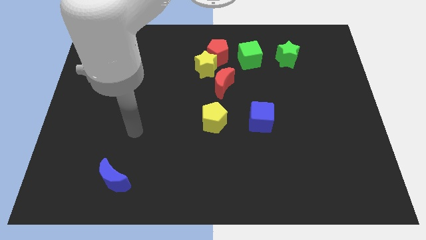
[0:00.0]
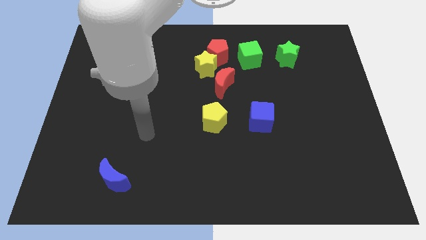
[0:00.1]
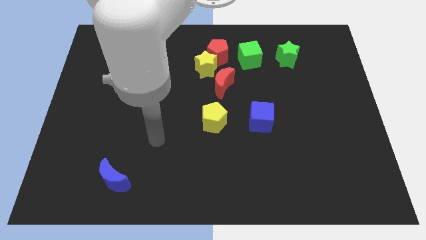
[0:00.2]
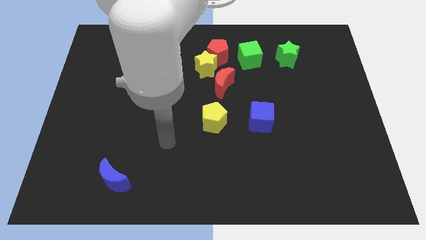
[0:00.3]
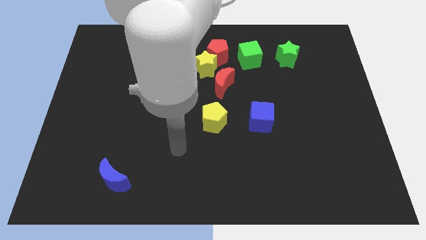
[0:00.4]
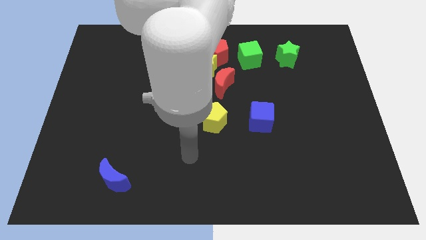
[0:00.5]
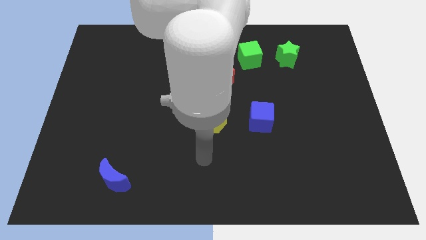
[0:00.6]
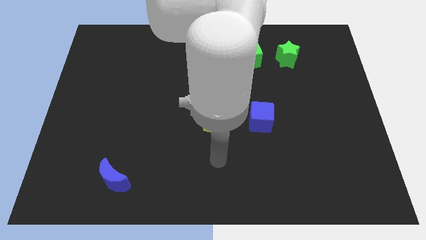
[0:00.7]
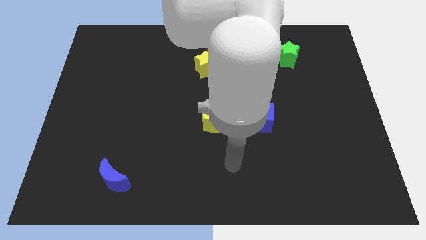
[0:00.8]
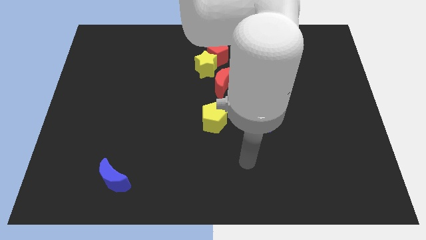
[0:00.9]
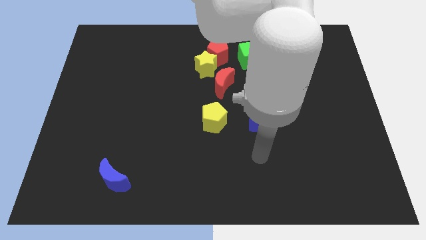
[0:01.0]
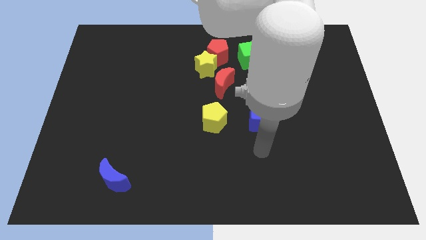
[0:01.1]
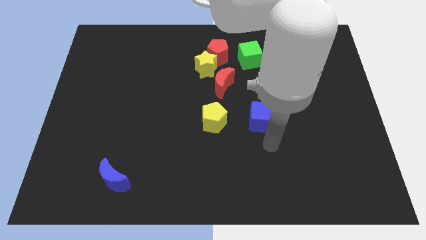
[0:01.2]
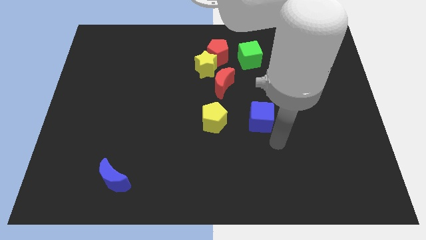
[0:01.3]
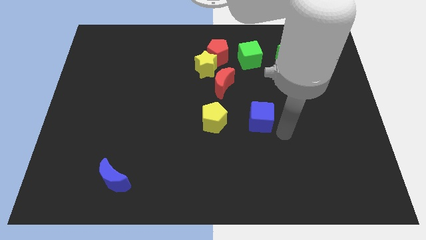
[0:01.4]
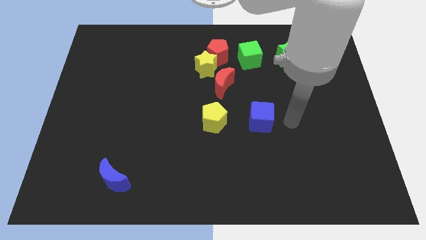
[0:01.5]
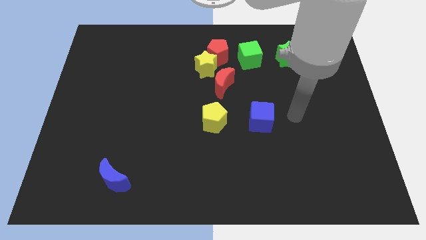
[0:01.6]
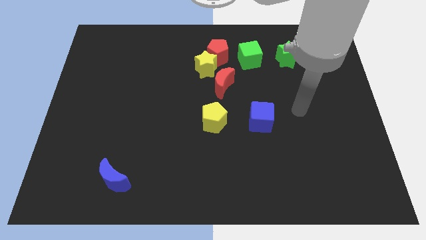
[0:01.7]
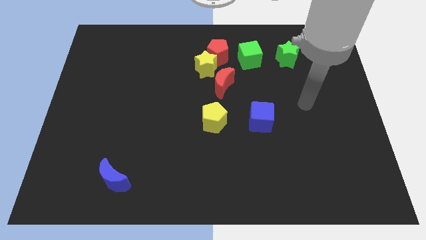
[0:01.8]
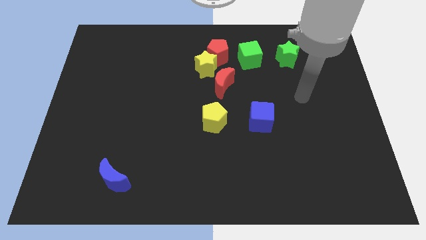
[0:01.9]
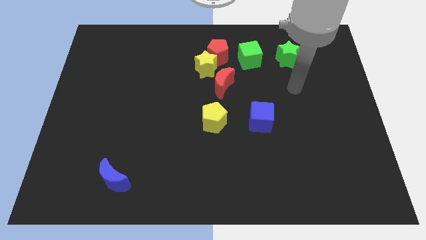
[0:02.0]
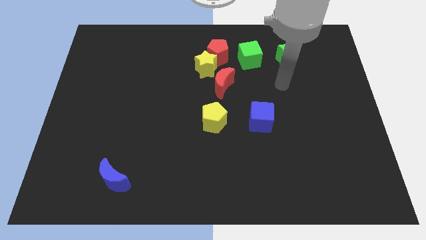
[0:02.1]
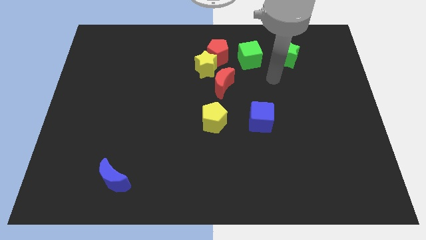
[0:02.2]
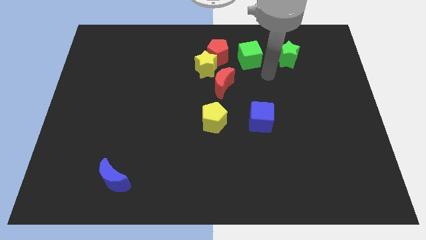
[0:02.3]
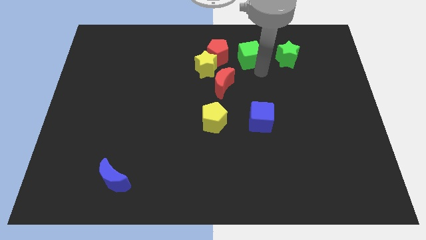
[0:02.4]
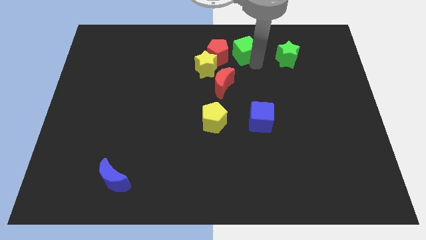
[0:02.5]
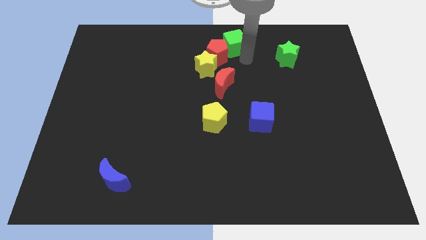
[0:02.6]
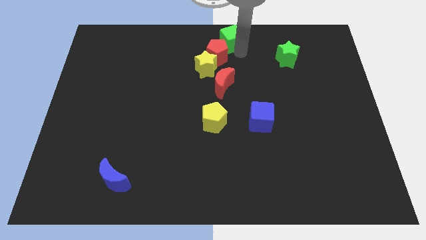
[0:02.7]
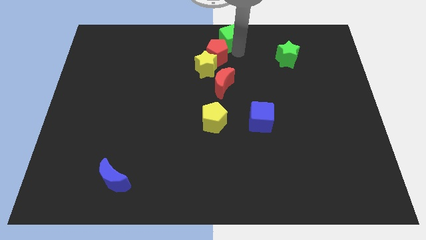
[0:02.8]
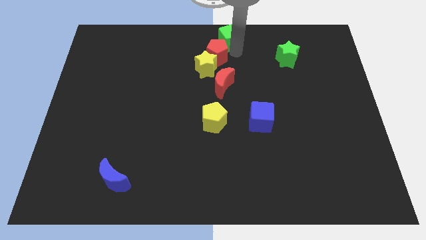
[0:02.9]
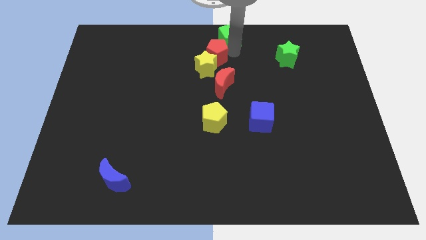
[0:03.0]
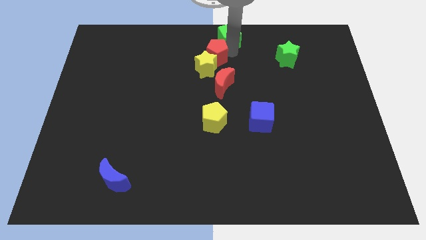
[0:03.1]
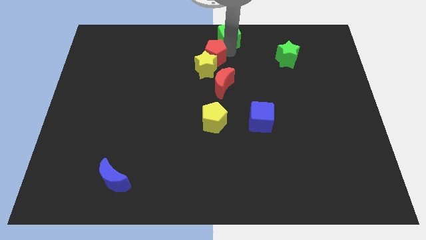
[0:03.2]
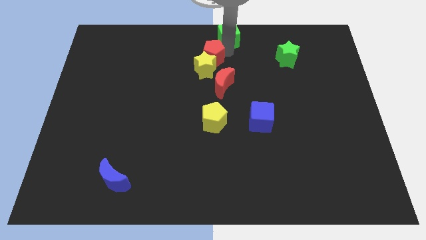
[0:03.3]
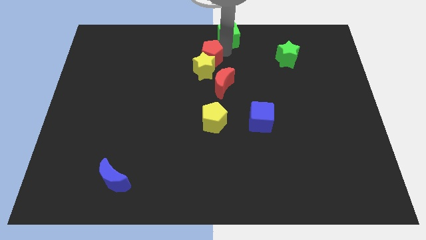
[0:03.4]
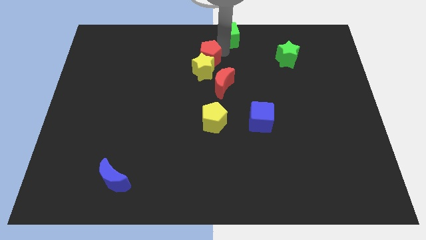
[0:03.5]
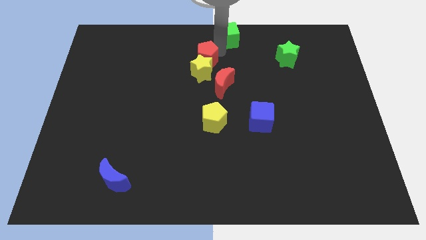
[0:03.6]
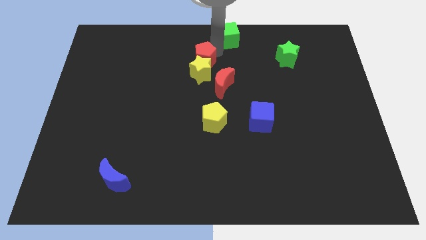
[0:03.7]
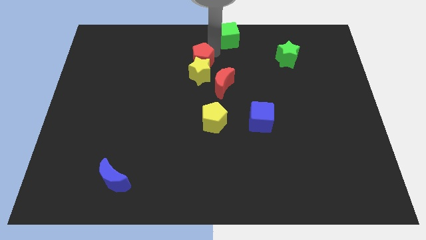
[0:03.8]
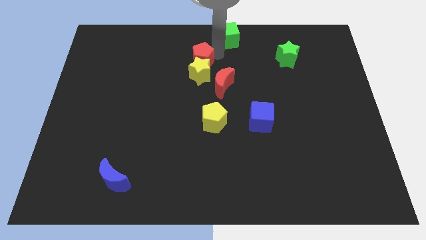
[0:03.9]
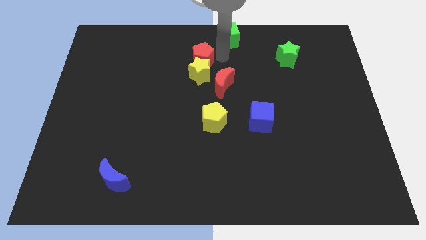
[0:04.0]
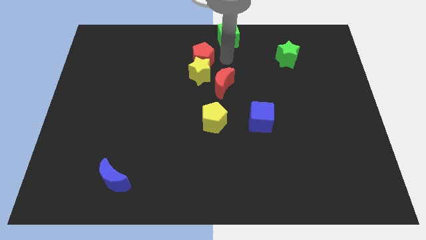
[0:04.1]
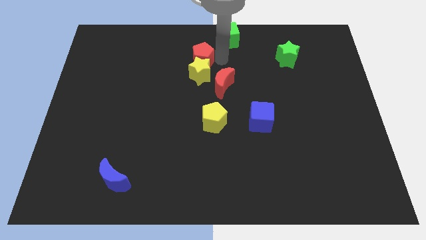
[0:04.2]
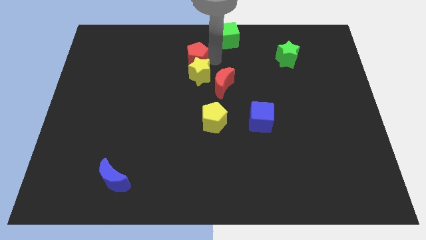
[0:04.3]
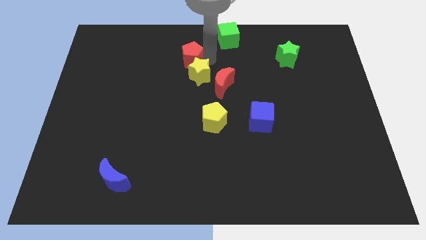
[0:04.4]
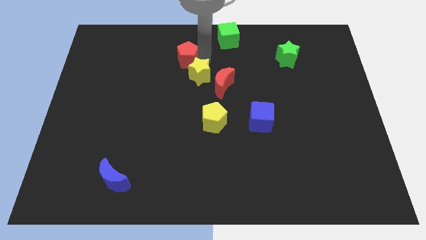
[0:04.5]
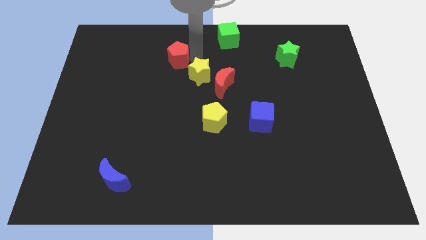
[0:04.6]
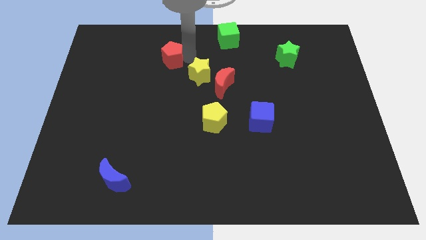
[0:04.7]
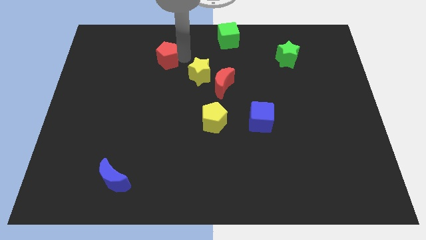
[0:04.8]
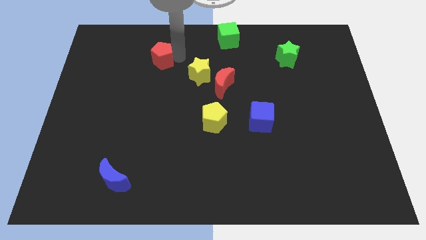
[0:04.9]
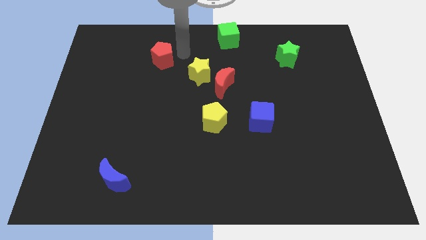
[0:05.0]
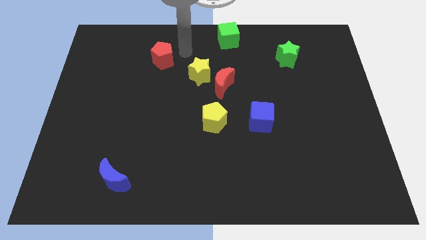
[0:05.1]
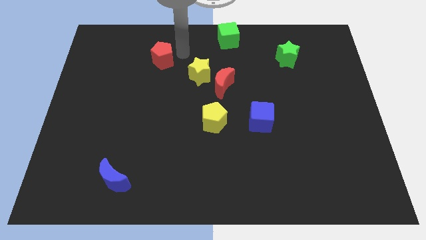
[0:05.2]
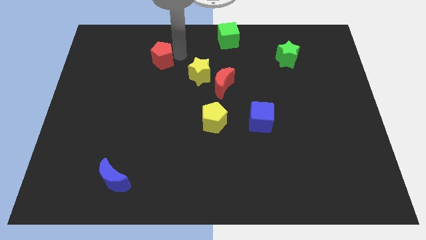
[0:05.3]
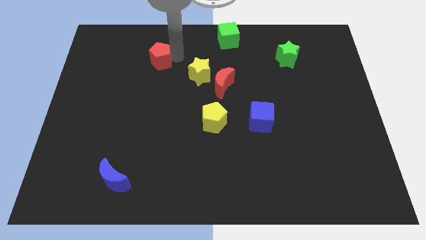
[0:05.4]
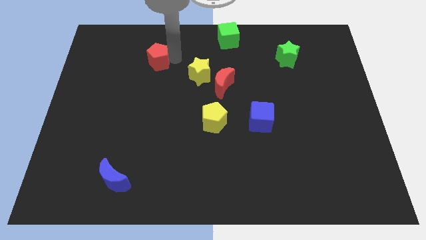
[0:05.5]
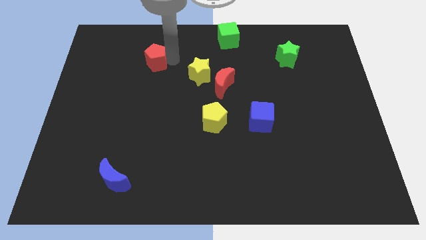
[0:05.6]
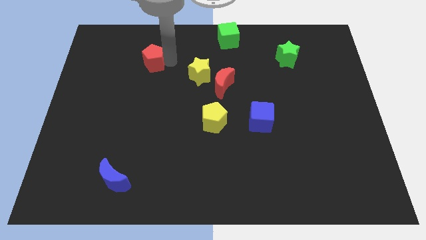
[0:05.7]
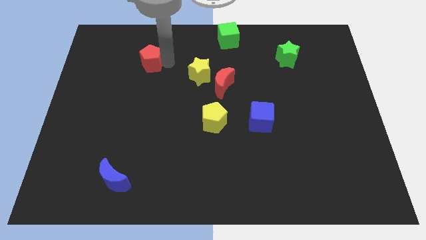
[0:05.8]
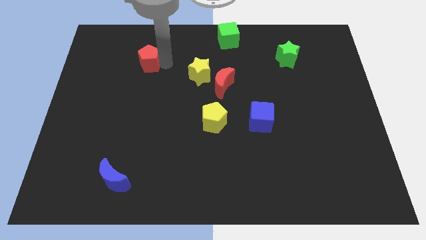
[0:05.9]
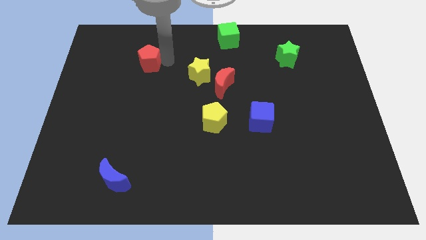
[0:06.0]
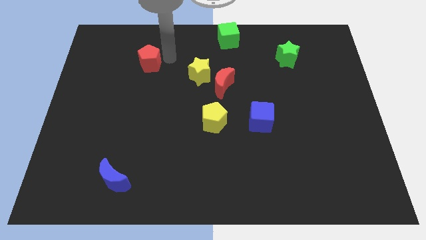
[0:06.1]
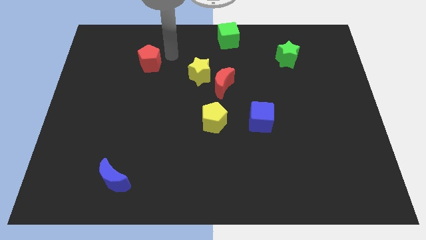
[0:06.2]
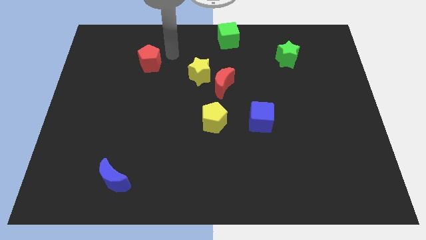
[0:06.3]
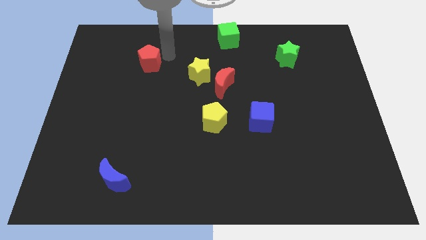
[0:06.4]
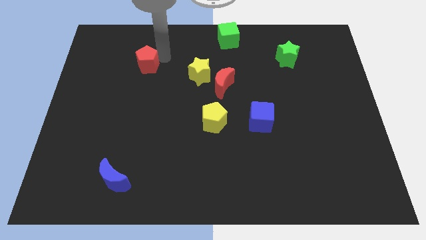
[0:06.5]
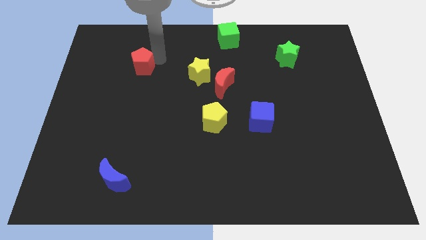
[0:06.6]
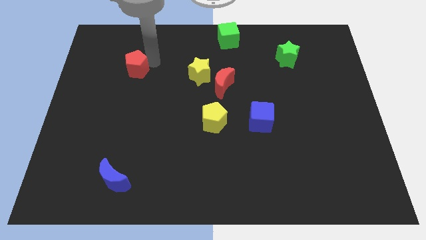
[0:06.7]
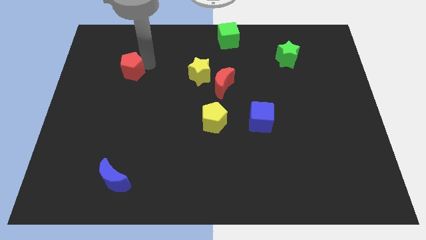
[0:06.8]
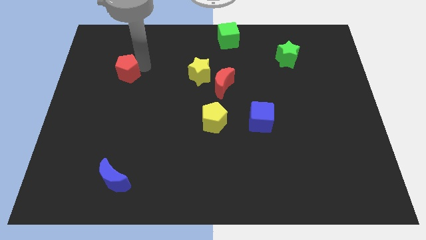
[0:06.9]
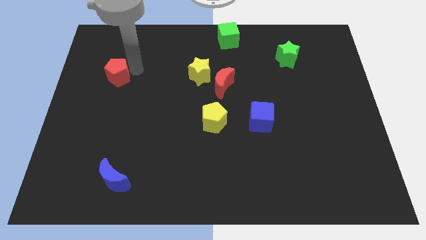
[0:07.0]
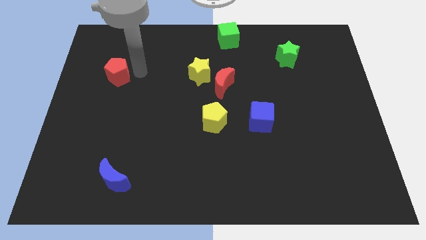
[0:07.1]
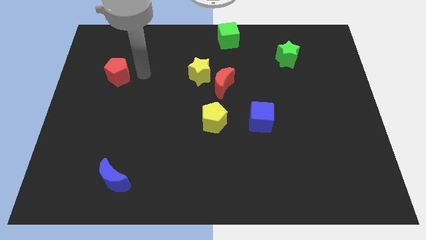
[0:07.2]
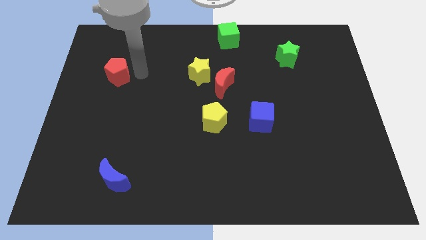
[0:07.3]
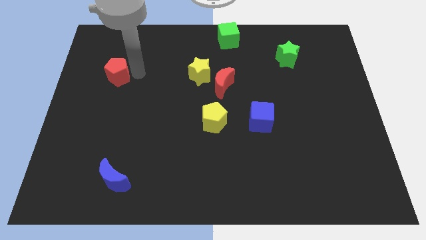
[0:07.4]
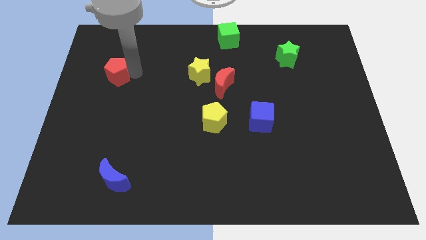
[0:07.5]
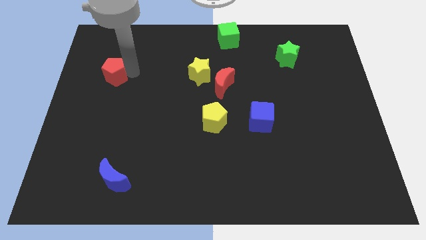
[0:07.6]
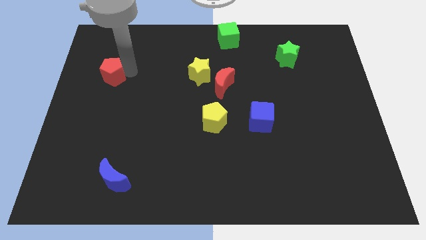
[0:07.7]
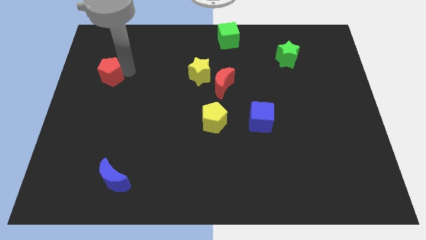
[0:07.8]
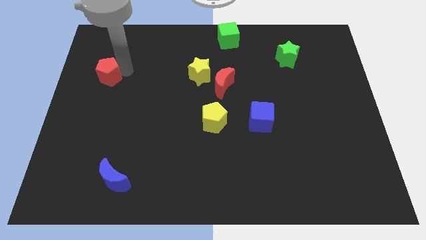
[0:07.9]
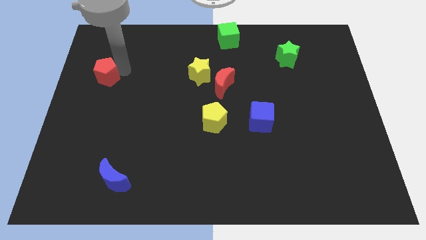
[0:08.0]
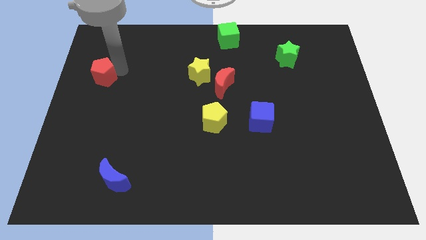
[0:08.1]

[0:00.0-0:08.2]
move the red pentagon to the center left
